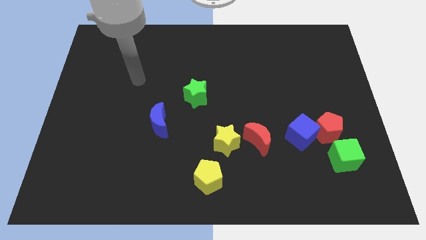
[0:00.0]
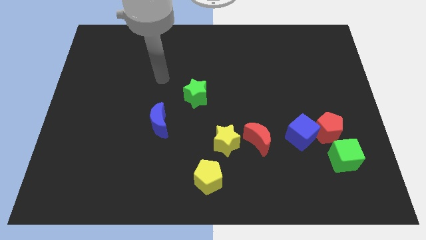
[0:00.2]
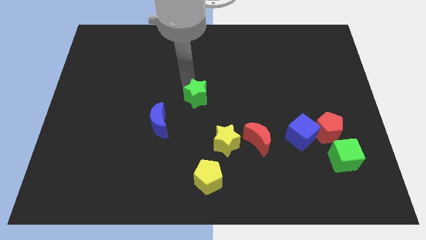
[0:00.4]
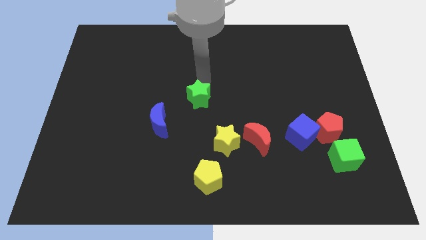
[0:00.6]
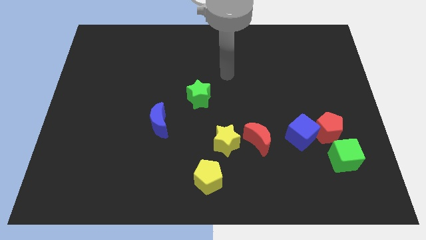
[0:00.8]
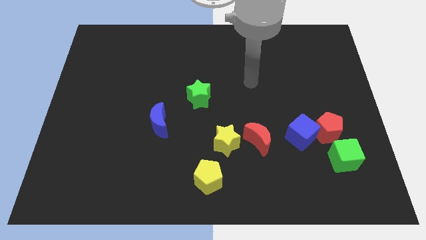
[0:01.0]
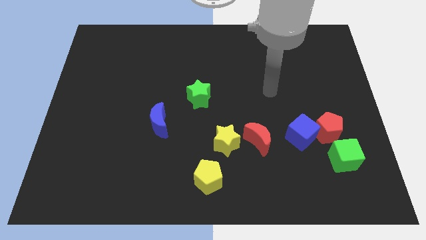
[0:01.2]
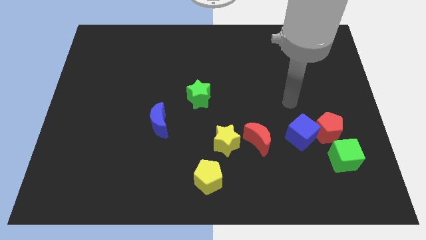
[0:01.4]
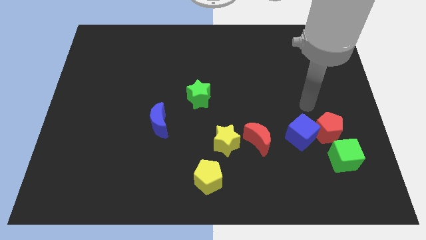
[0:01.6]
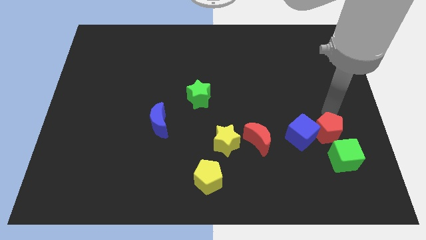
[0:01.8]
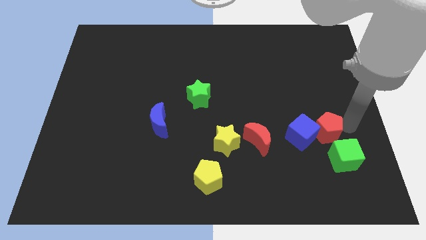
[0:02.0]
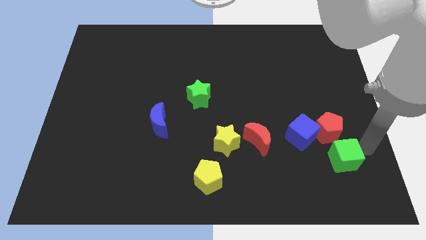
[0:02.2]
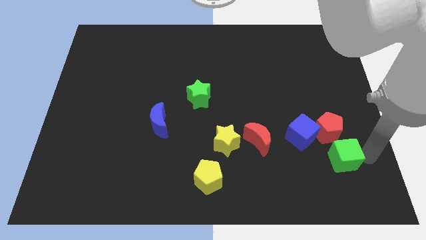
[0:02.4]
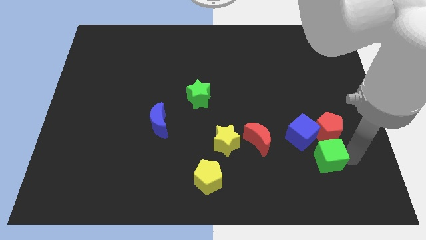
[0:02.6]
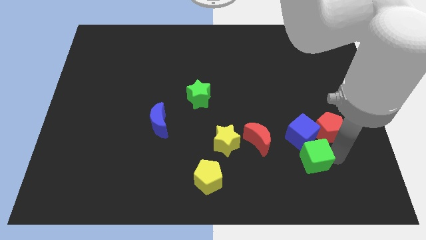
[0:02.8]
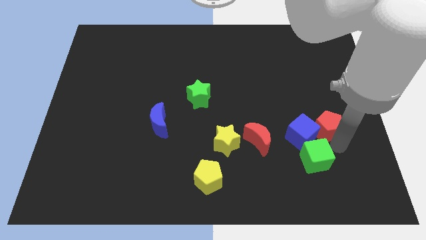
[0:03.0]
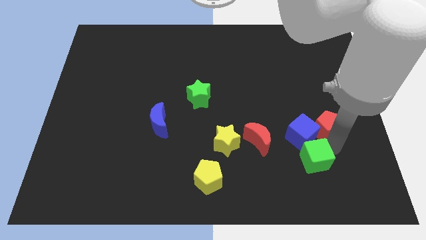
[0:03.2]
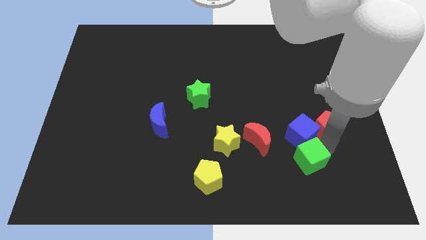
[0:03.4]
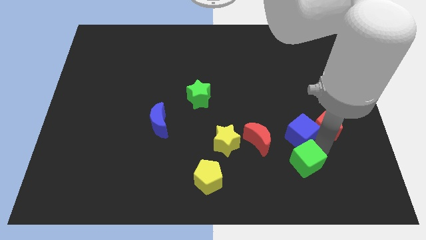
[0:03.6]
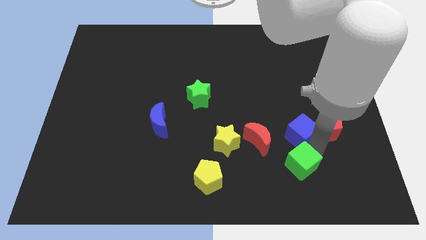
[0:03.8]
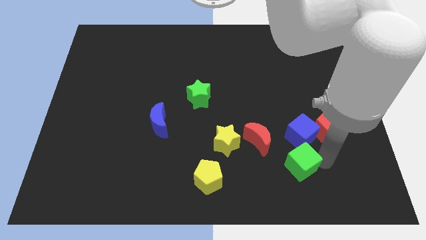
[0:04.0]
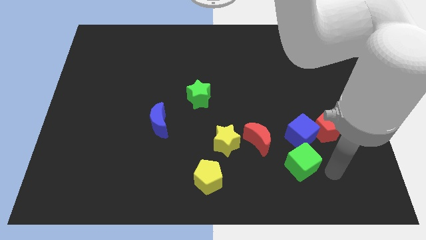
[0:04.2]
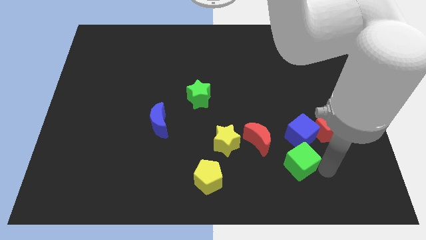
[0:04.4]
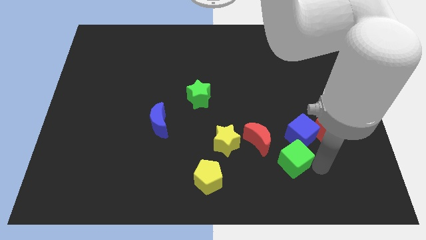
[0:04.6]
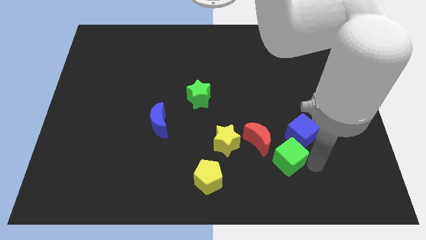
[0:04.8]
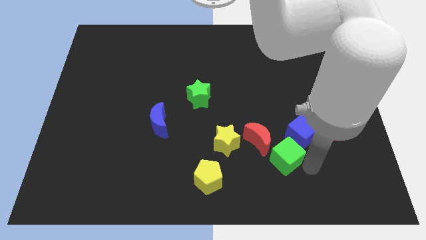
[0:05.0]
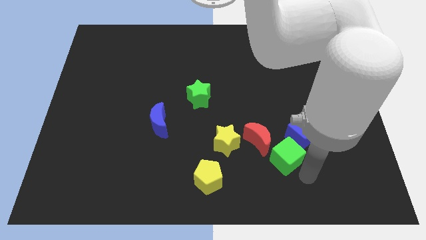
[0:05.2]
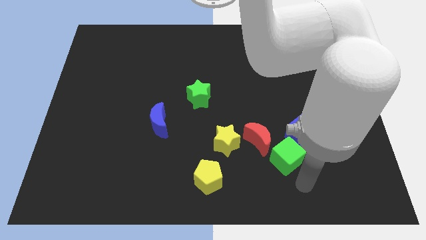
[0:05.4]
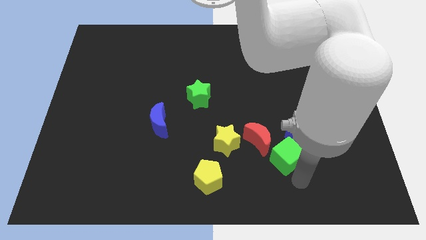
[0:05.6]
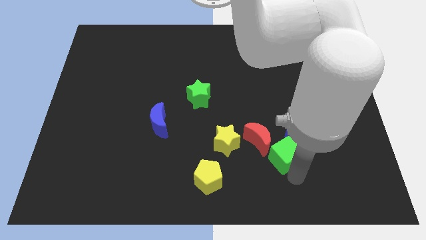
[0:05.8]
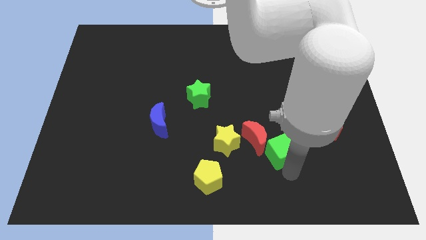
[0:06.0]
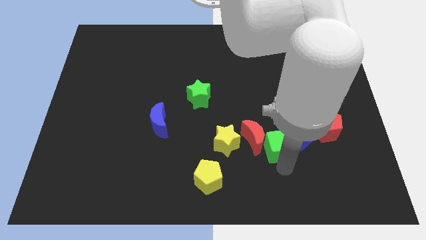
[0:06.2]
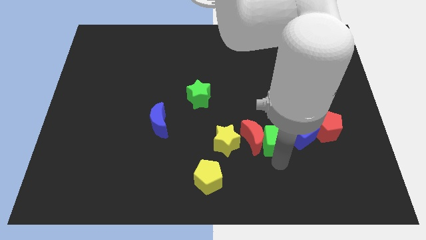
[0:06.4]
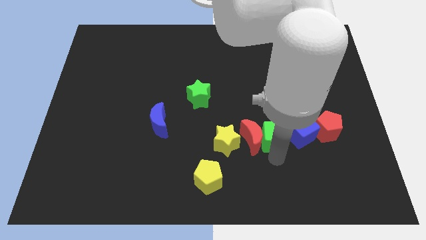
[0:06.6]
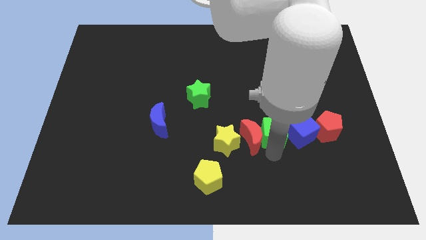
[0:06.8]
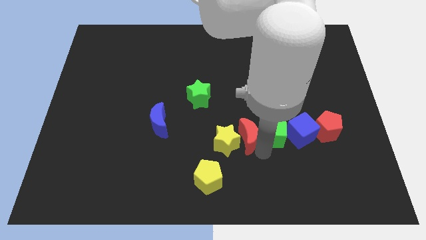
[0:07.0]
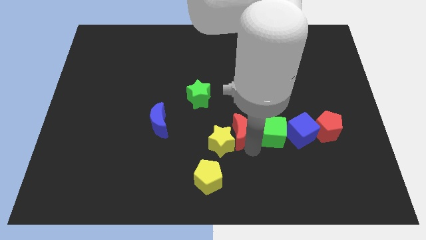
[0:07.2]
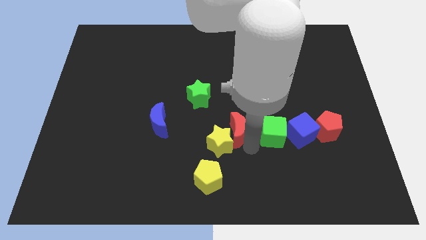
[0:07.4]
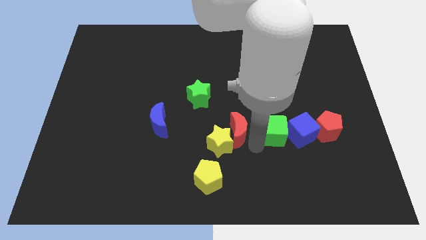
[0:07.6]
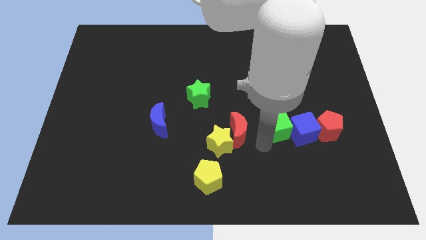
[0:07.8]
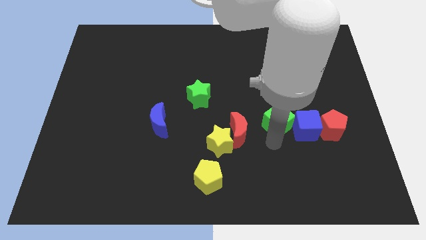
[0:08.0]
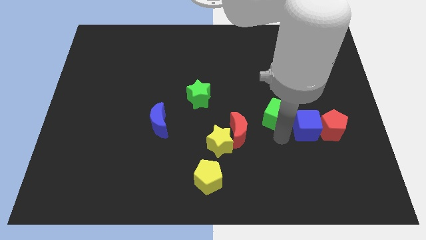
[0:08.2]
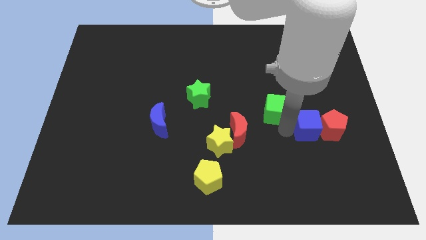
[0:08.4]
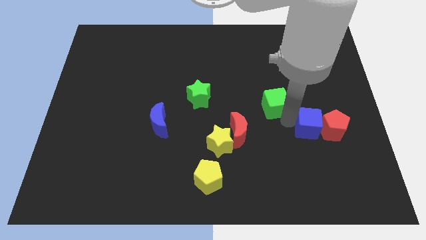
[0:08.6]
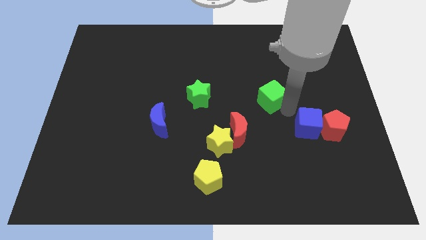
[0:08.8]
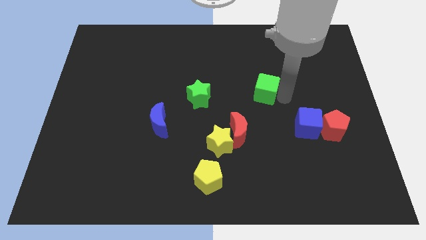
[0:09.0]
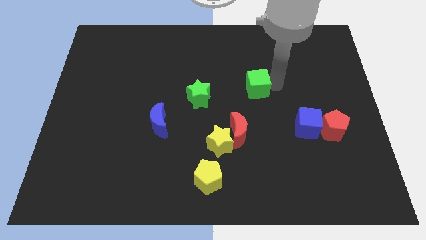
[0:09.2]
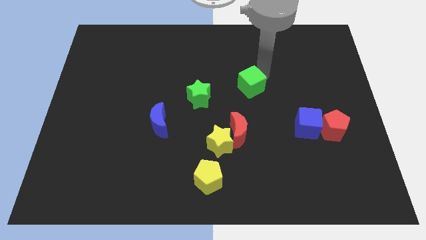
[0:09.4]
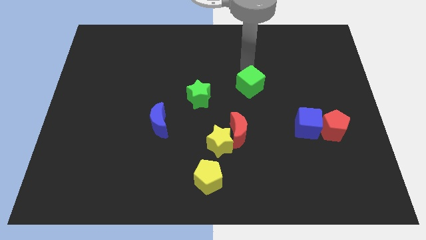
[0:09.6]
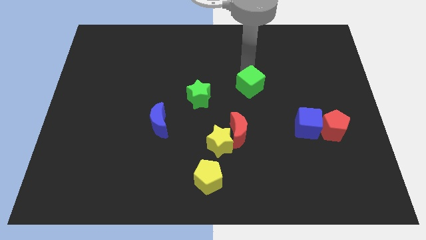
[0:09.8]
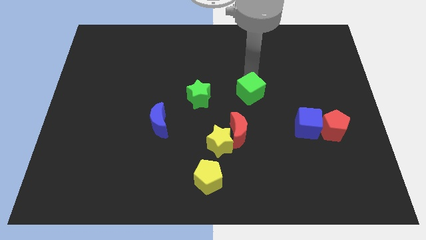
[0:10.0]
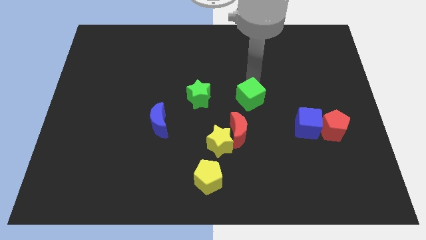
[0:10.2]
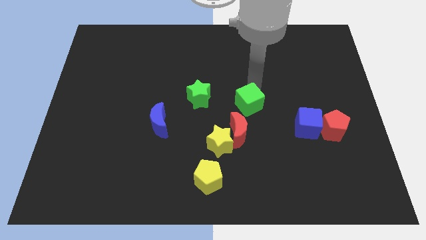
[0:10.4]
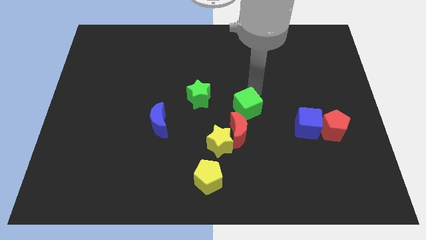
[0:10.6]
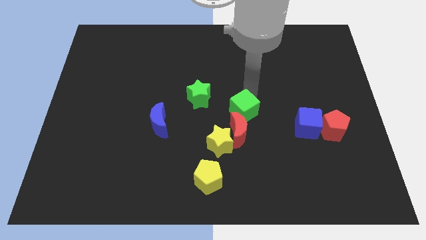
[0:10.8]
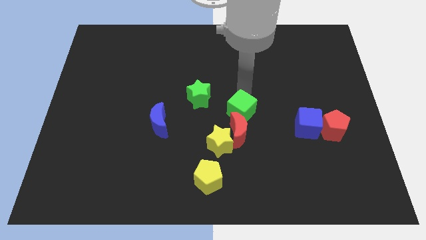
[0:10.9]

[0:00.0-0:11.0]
move the green cube diagonally up and to the left of the red moon

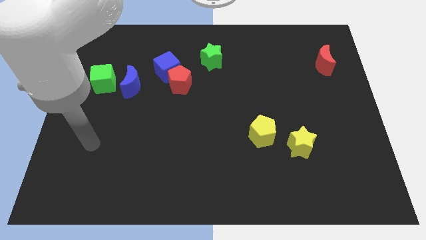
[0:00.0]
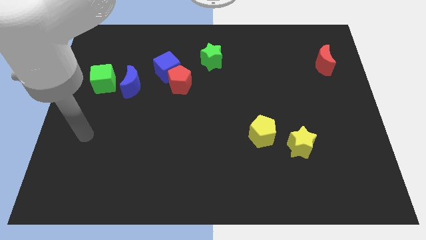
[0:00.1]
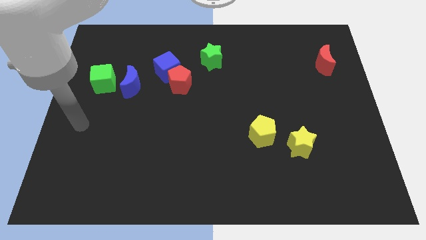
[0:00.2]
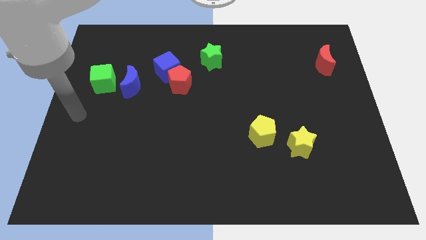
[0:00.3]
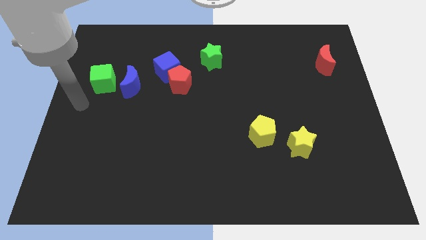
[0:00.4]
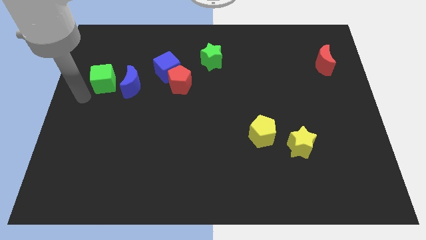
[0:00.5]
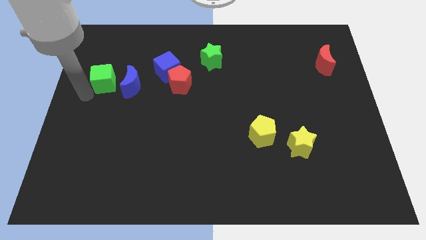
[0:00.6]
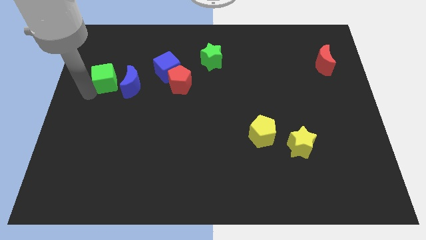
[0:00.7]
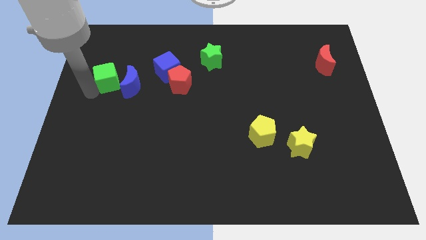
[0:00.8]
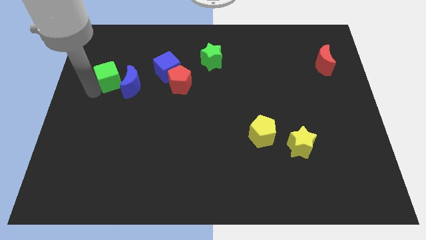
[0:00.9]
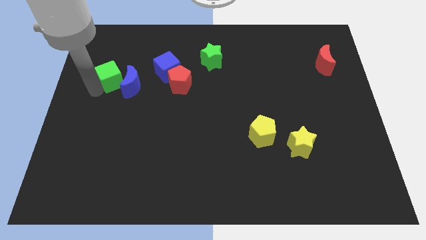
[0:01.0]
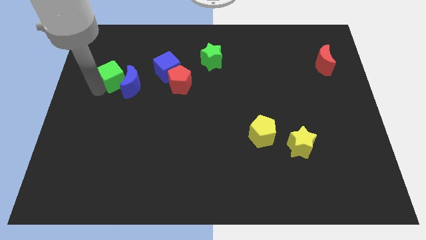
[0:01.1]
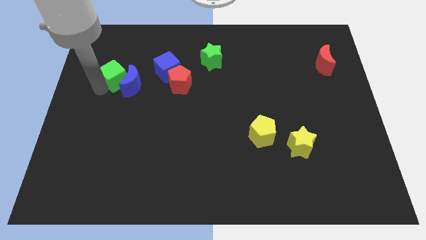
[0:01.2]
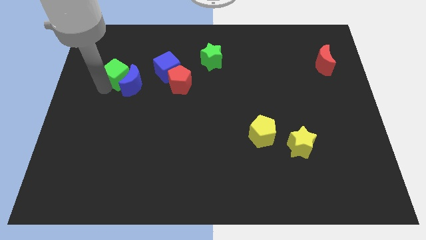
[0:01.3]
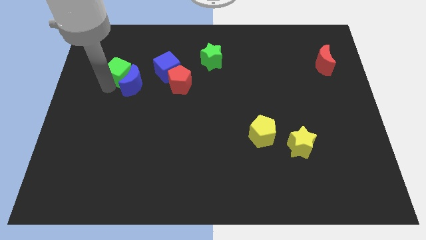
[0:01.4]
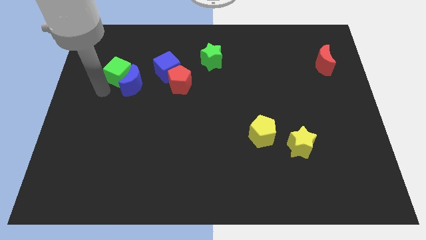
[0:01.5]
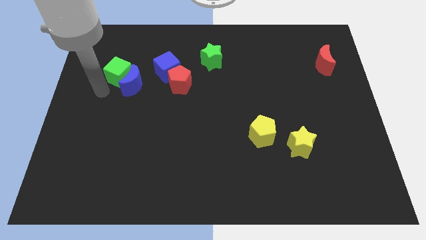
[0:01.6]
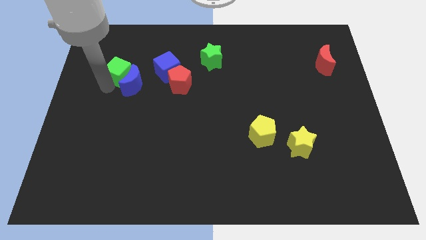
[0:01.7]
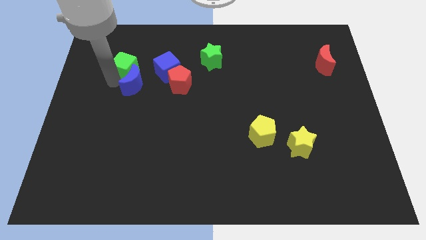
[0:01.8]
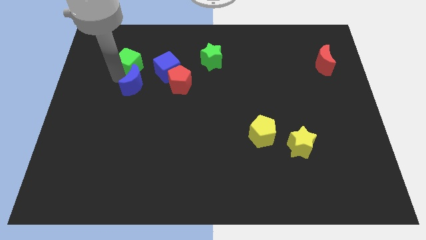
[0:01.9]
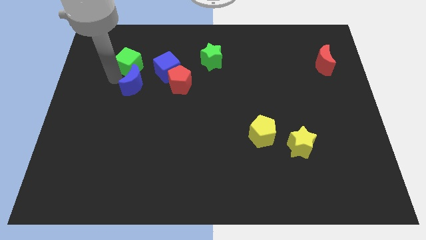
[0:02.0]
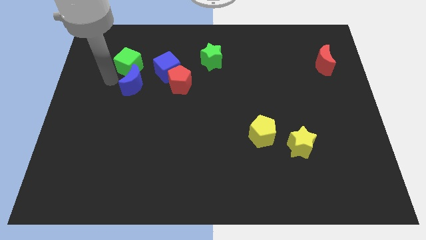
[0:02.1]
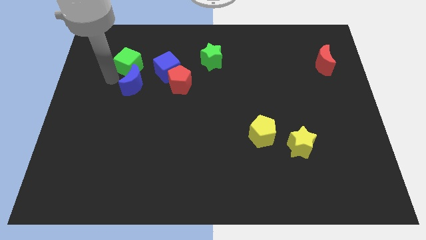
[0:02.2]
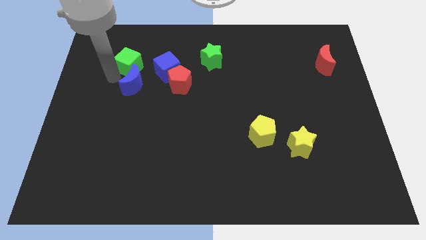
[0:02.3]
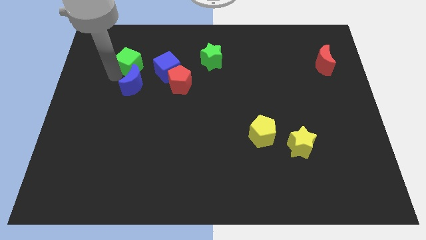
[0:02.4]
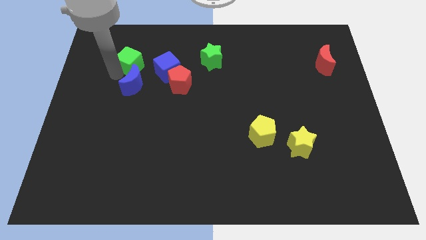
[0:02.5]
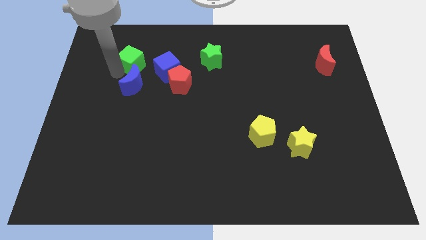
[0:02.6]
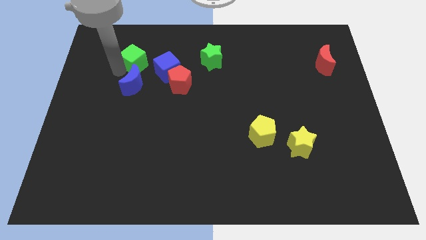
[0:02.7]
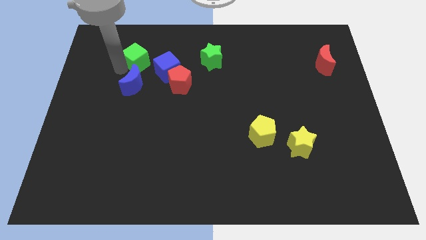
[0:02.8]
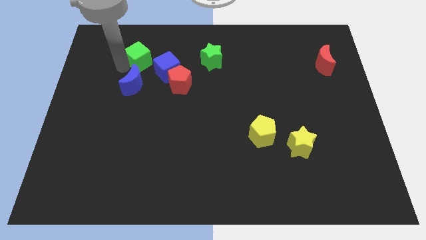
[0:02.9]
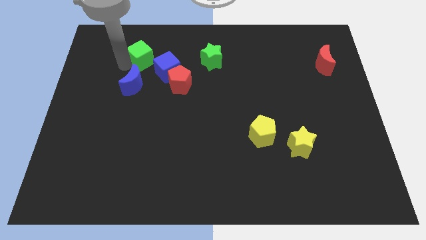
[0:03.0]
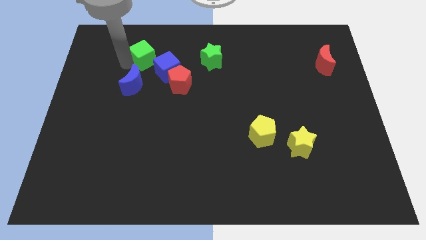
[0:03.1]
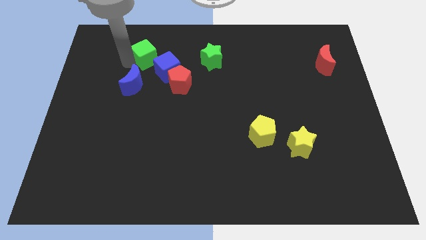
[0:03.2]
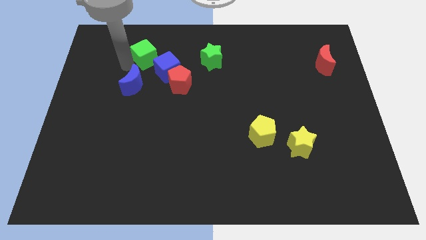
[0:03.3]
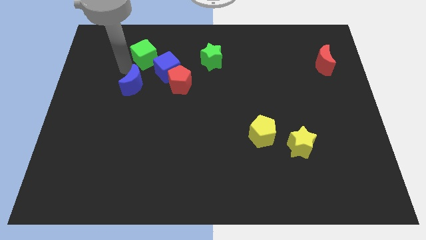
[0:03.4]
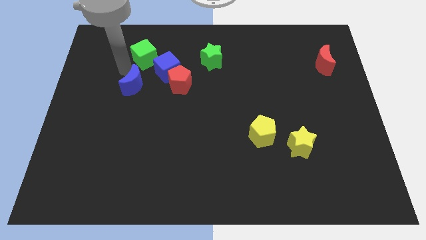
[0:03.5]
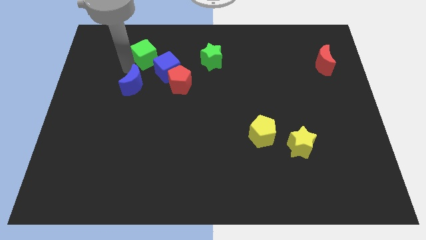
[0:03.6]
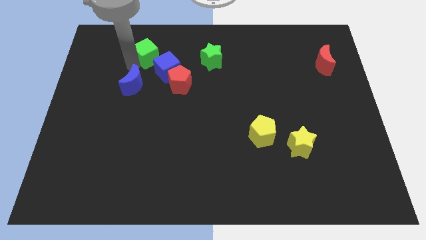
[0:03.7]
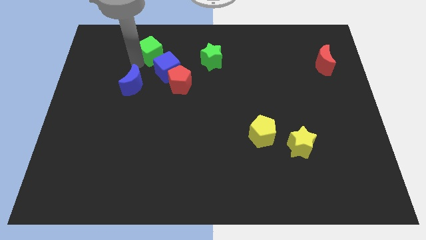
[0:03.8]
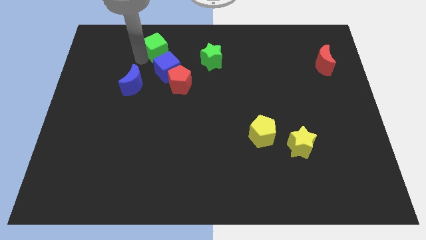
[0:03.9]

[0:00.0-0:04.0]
put the green cube to the left side of the green star
